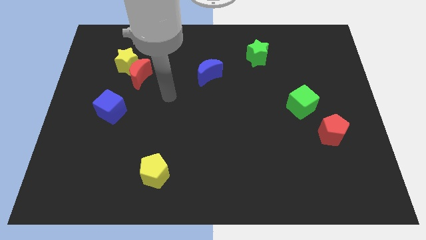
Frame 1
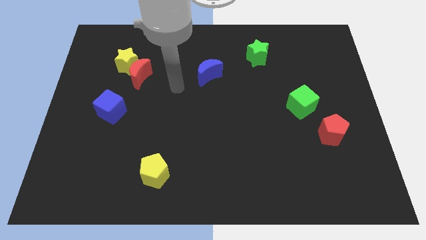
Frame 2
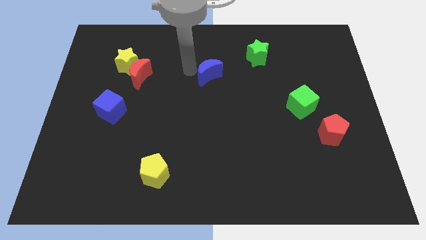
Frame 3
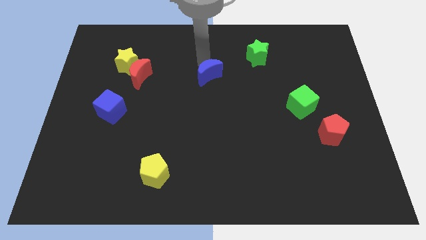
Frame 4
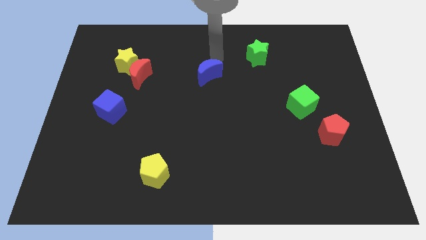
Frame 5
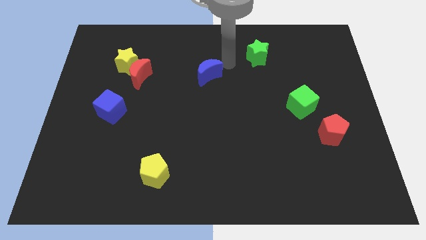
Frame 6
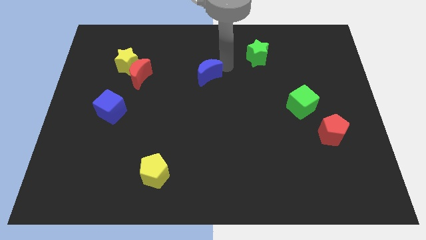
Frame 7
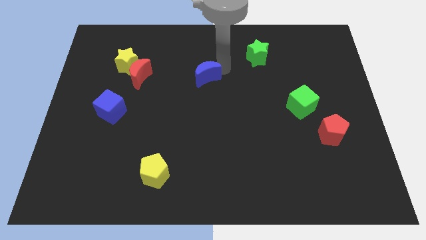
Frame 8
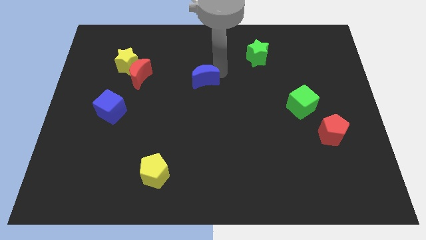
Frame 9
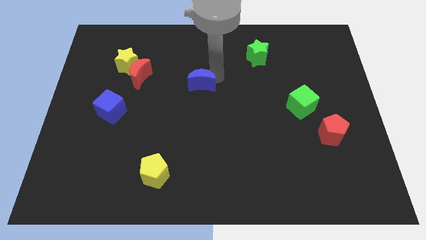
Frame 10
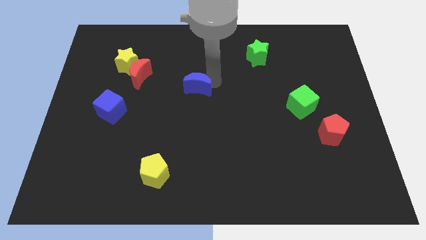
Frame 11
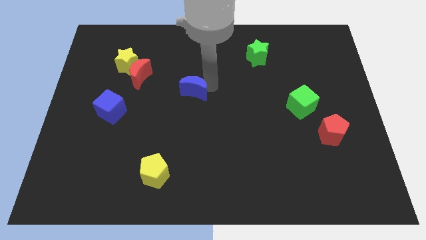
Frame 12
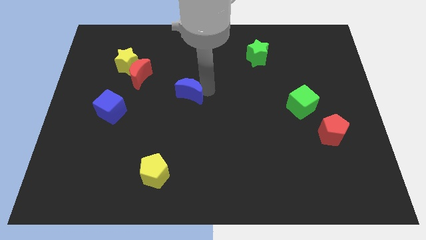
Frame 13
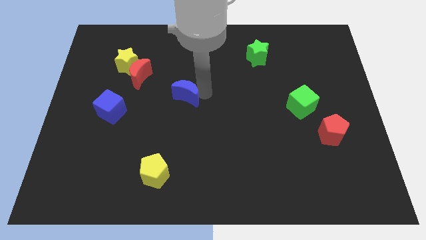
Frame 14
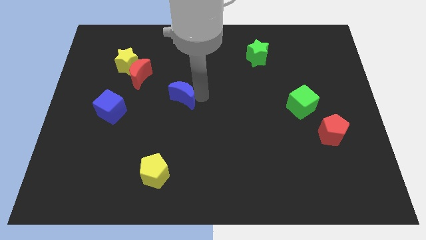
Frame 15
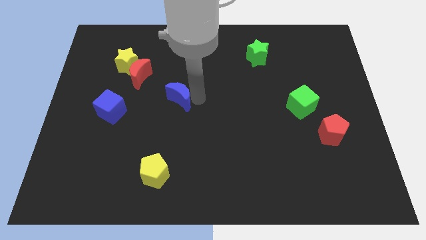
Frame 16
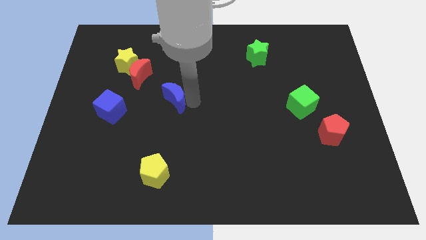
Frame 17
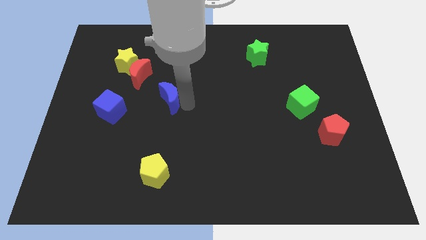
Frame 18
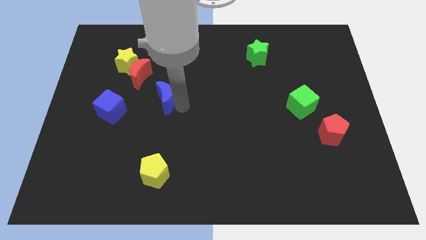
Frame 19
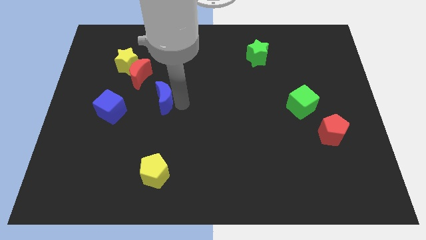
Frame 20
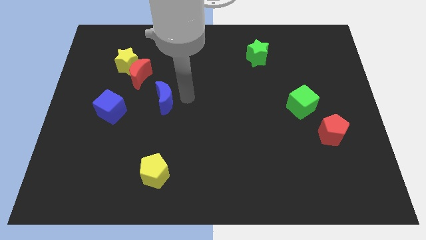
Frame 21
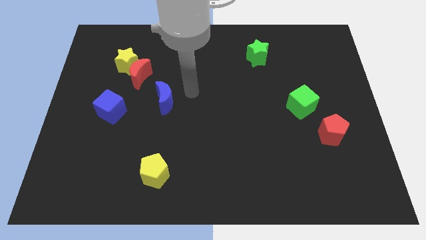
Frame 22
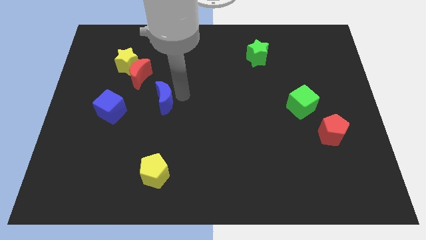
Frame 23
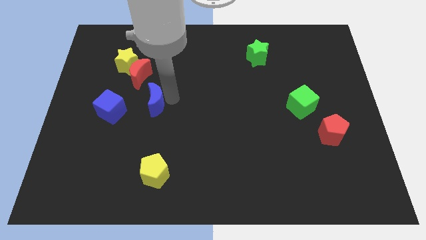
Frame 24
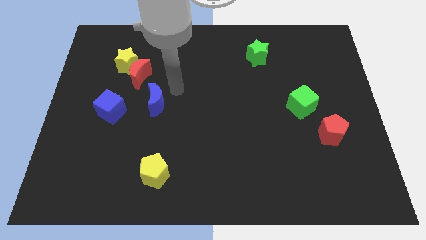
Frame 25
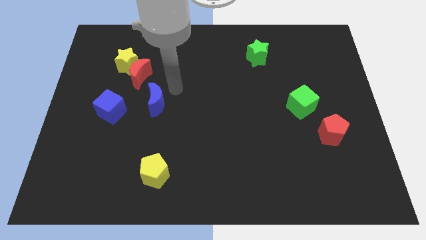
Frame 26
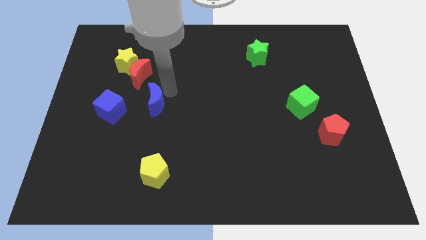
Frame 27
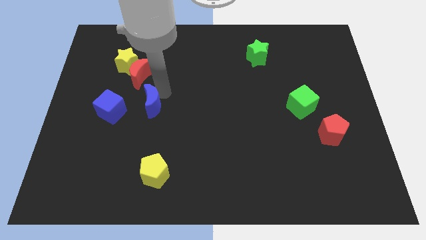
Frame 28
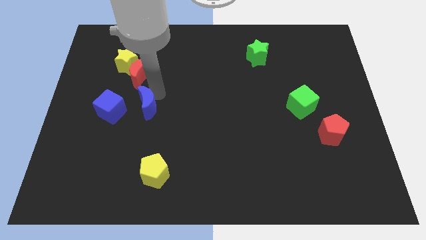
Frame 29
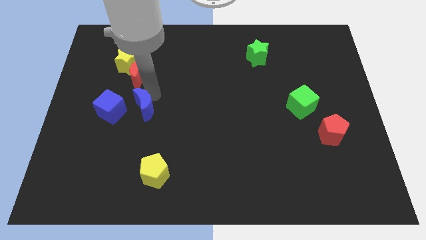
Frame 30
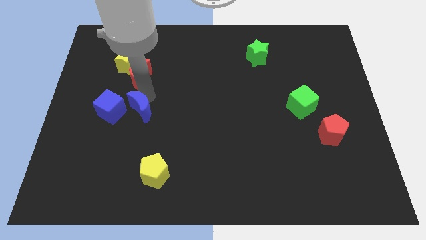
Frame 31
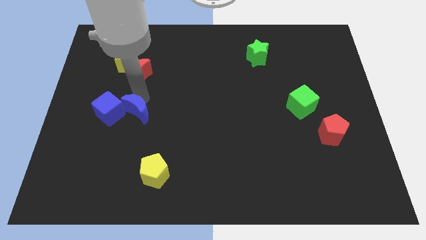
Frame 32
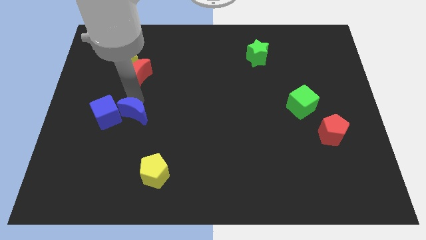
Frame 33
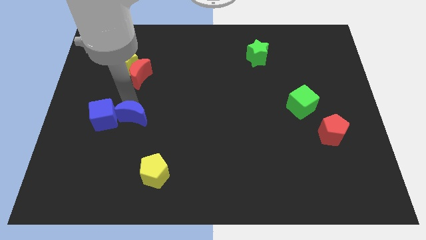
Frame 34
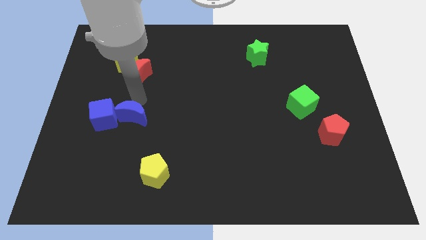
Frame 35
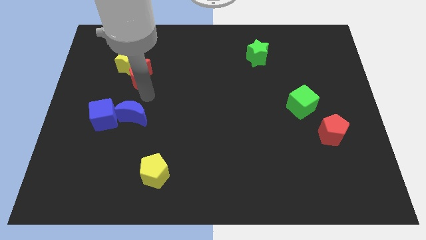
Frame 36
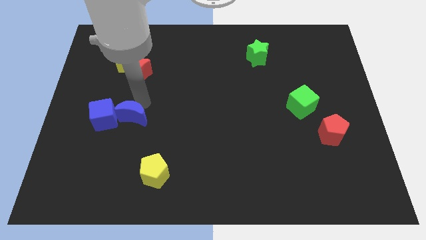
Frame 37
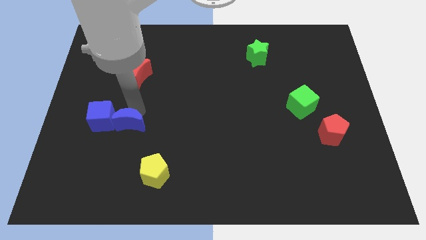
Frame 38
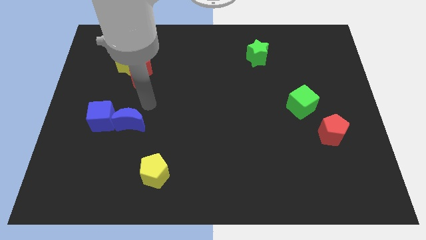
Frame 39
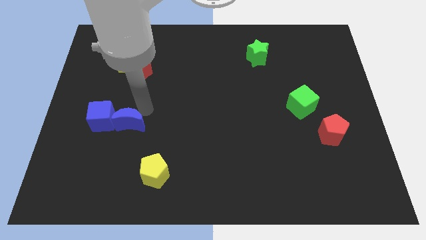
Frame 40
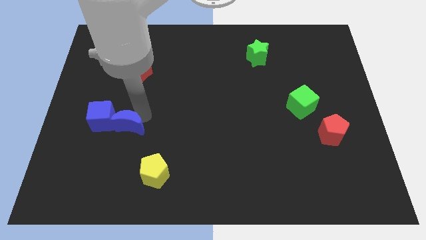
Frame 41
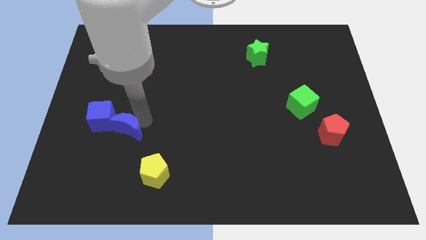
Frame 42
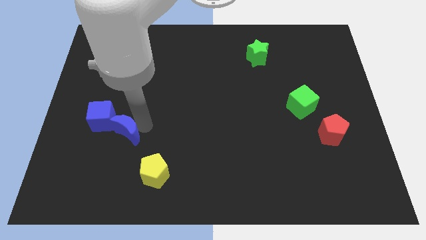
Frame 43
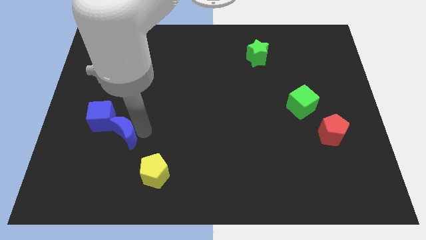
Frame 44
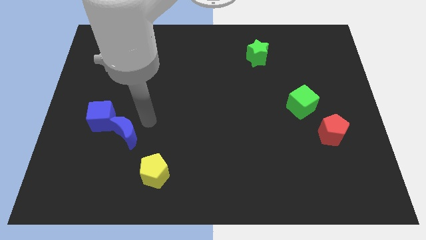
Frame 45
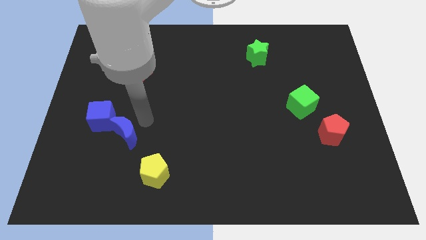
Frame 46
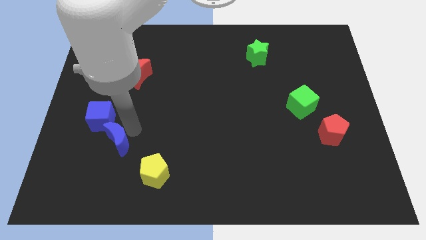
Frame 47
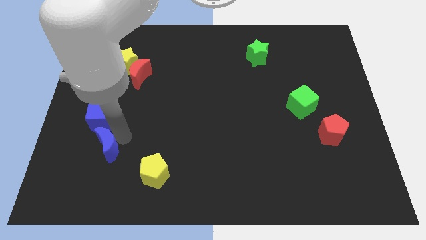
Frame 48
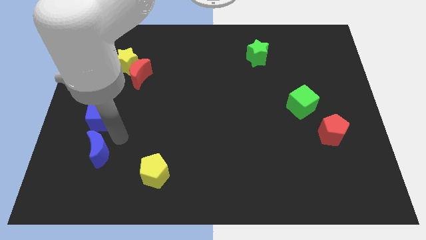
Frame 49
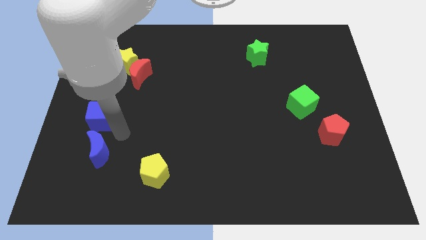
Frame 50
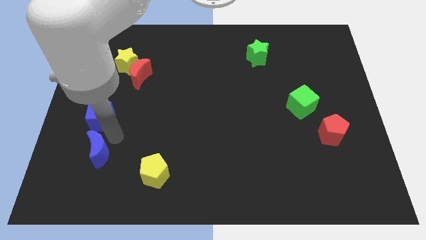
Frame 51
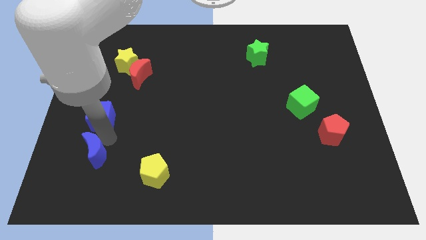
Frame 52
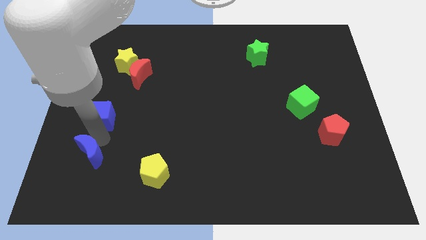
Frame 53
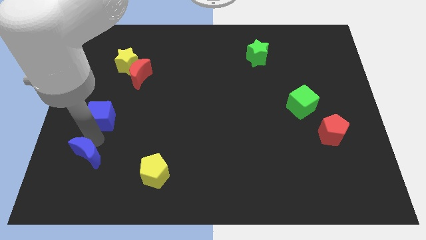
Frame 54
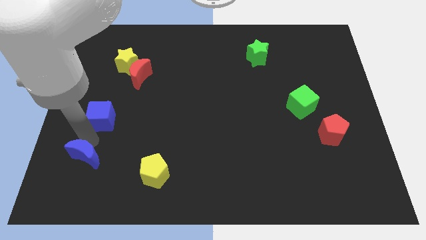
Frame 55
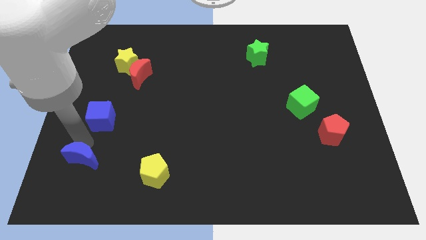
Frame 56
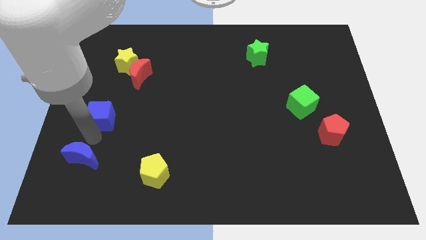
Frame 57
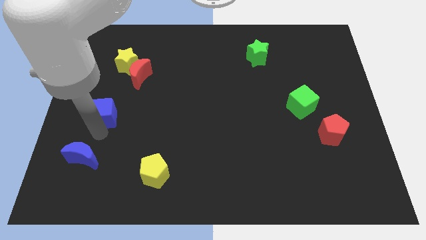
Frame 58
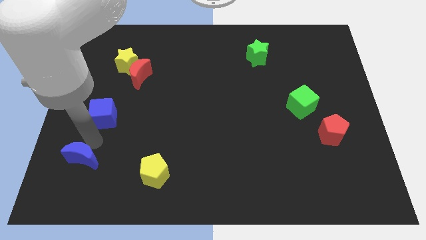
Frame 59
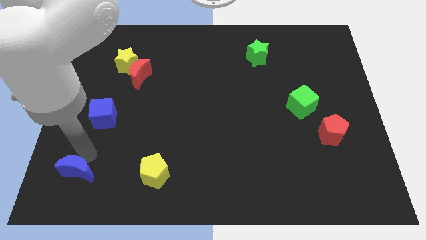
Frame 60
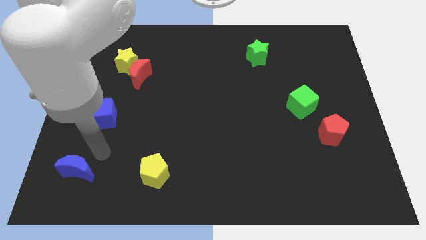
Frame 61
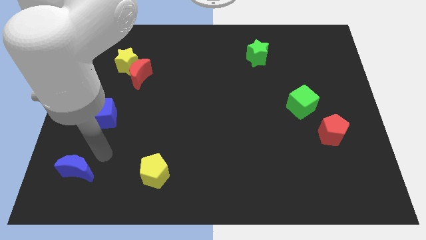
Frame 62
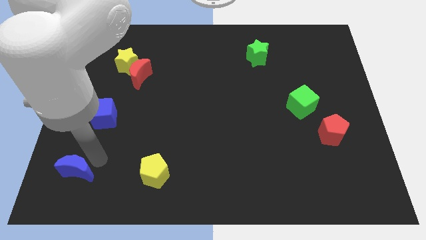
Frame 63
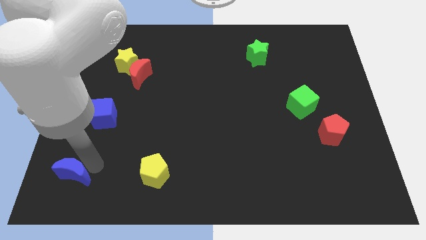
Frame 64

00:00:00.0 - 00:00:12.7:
slide the blue moon to the bottom left
